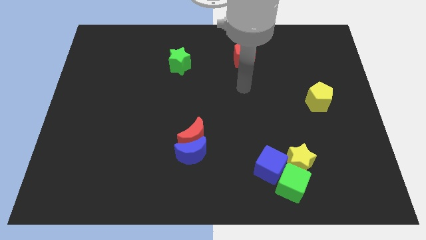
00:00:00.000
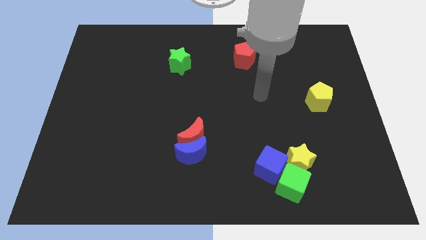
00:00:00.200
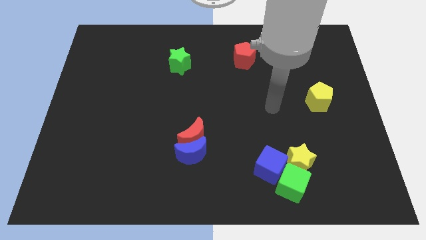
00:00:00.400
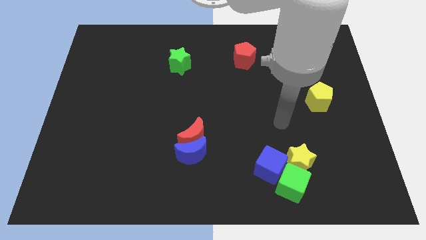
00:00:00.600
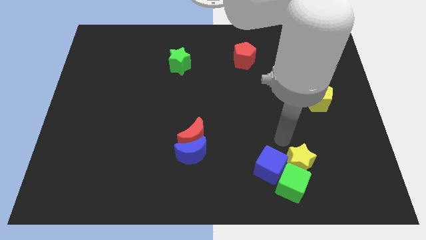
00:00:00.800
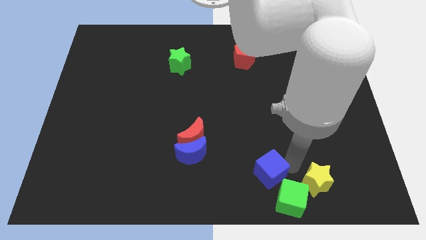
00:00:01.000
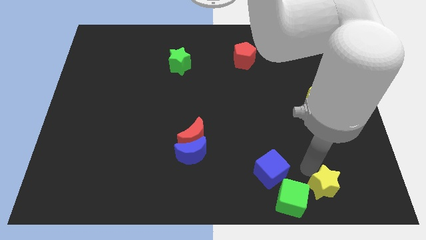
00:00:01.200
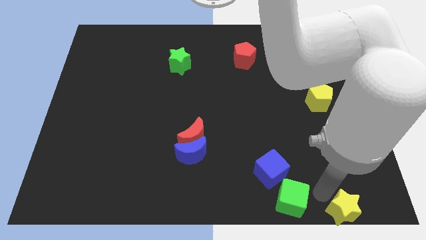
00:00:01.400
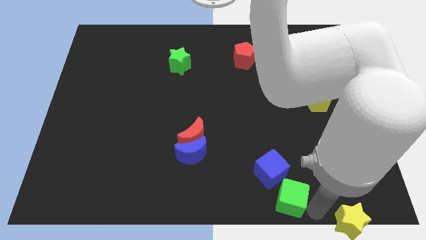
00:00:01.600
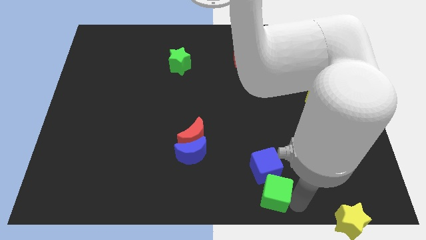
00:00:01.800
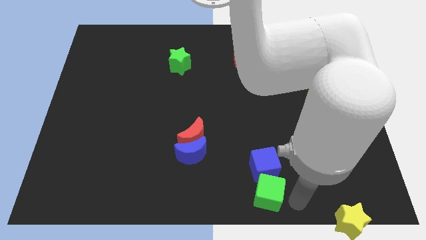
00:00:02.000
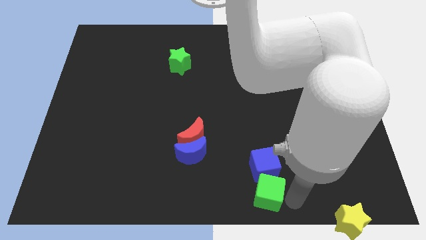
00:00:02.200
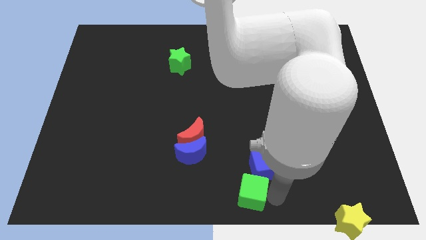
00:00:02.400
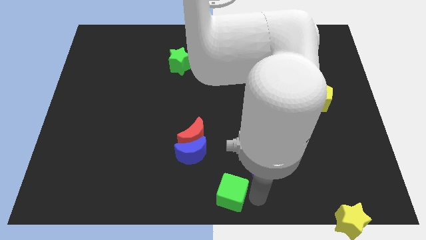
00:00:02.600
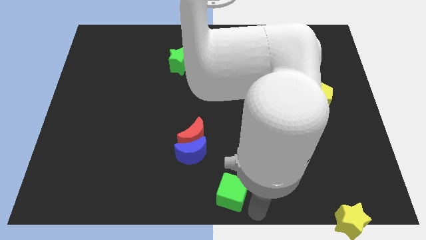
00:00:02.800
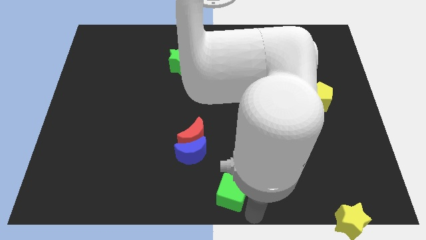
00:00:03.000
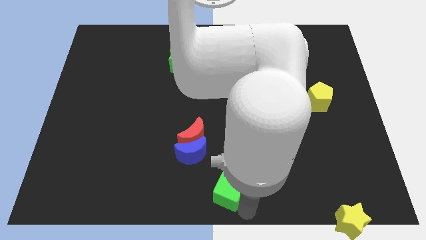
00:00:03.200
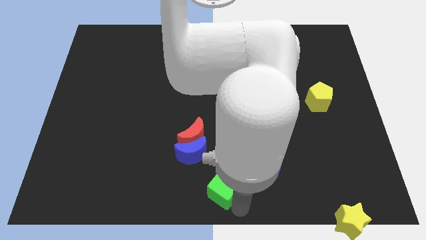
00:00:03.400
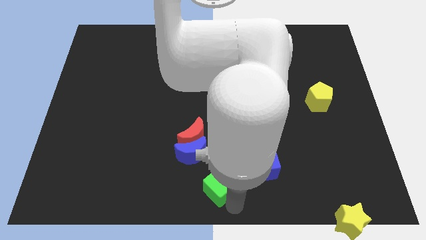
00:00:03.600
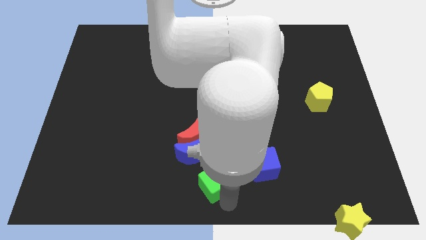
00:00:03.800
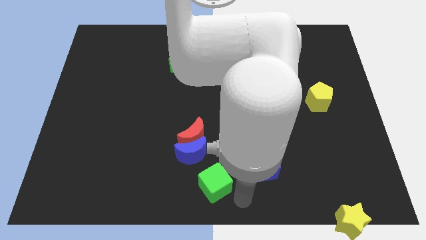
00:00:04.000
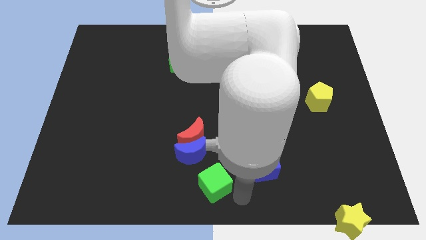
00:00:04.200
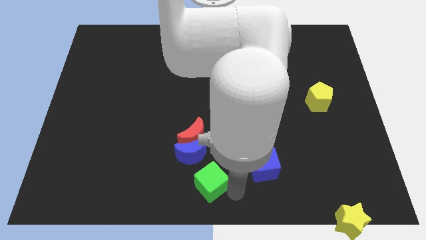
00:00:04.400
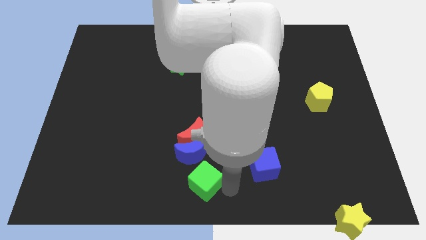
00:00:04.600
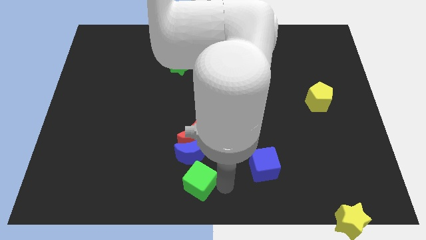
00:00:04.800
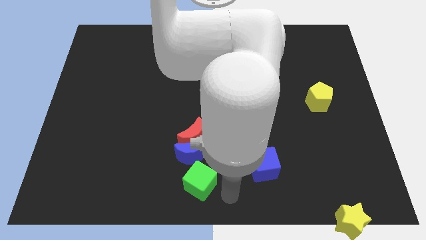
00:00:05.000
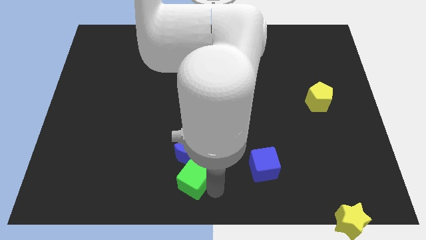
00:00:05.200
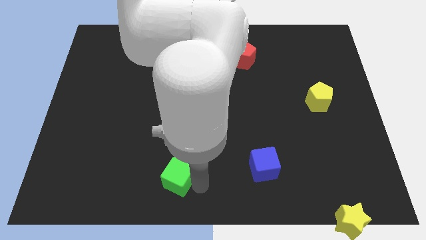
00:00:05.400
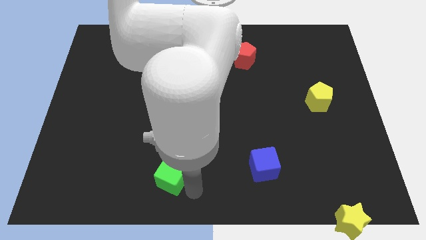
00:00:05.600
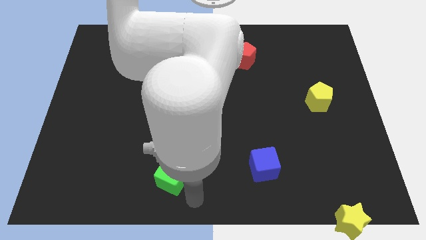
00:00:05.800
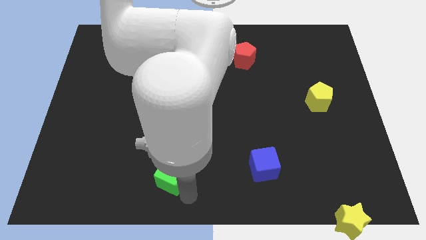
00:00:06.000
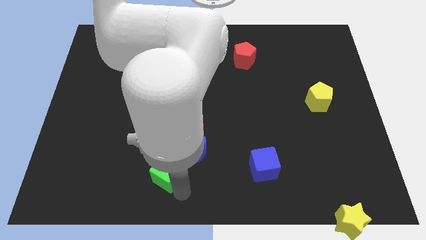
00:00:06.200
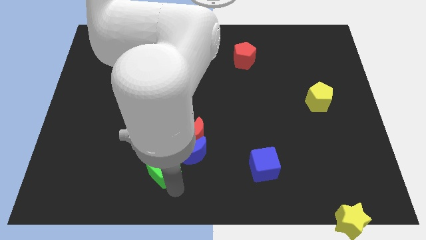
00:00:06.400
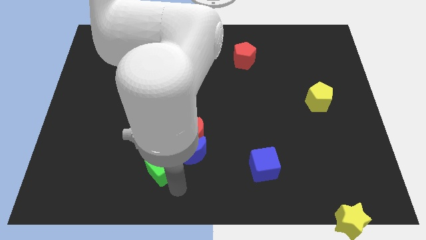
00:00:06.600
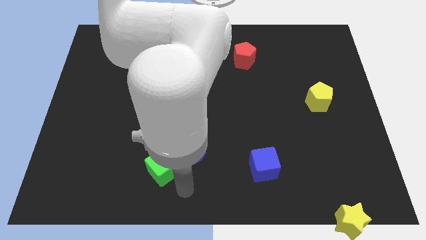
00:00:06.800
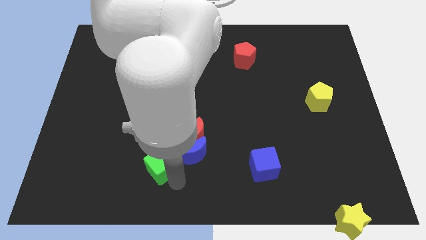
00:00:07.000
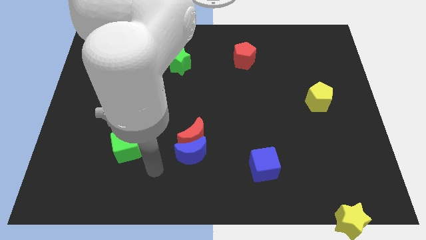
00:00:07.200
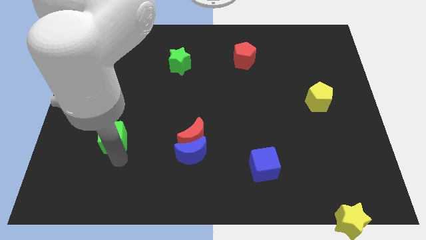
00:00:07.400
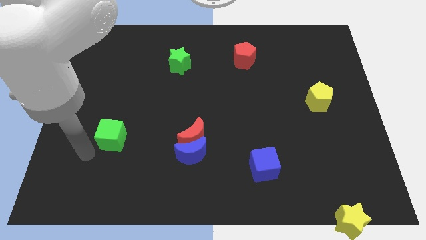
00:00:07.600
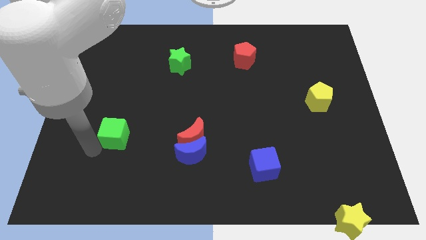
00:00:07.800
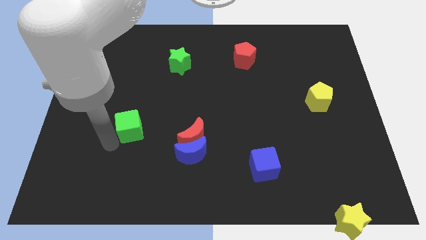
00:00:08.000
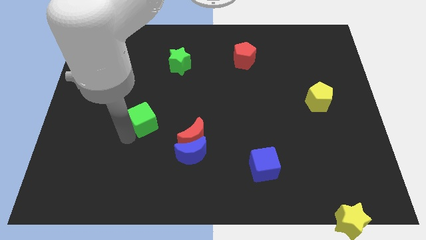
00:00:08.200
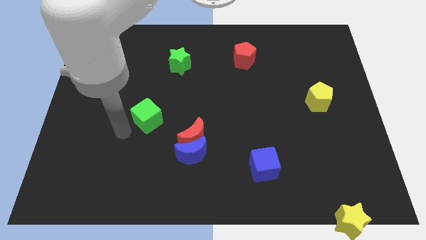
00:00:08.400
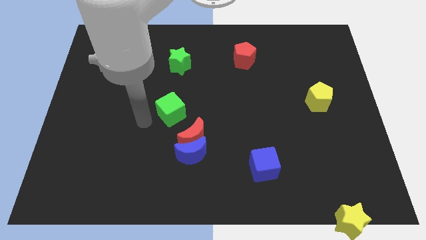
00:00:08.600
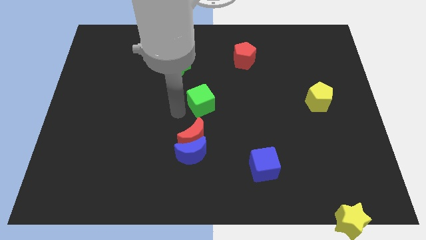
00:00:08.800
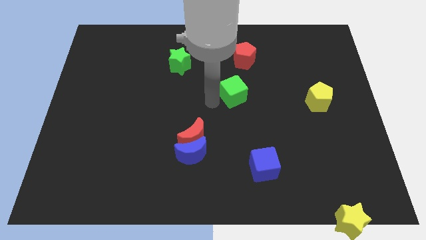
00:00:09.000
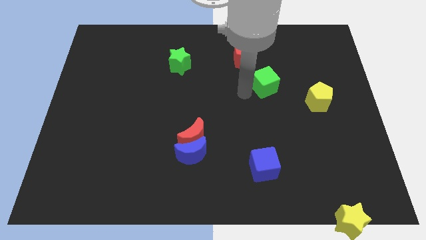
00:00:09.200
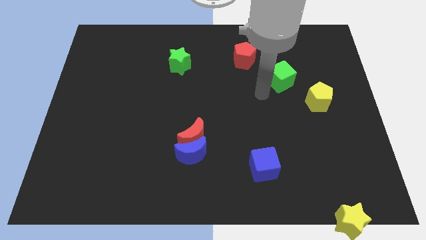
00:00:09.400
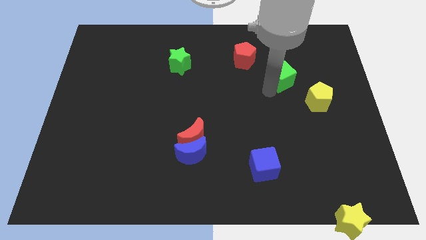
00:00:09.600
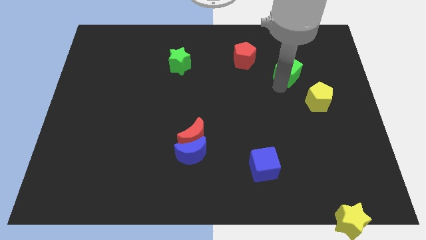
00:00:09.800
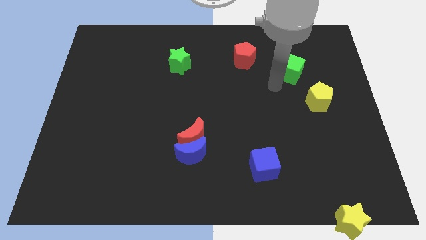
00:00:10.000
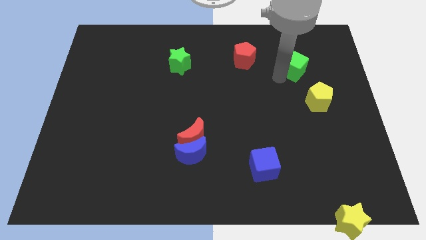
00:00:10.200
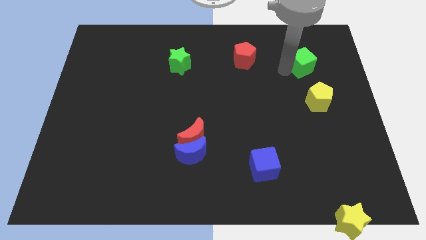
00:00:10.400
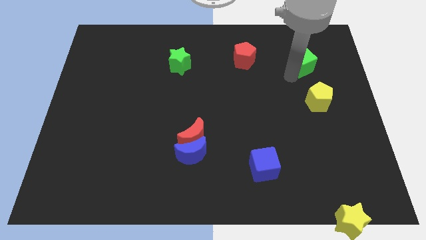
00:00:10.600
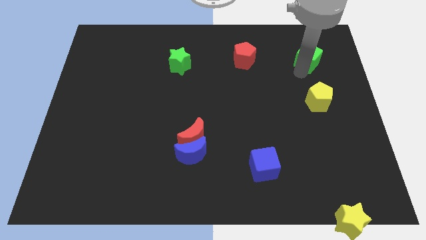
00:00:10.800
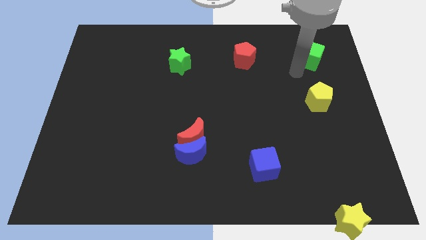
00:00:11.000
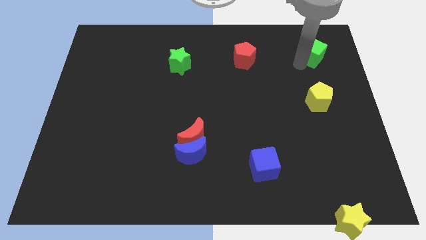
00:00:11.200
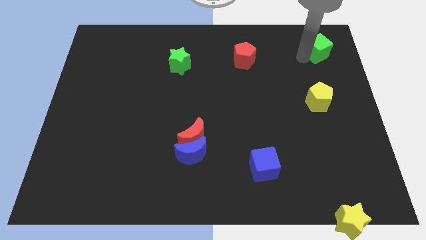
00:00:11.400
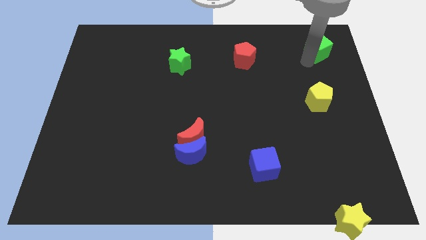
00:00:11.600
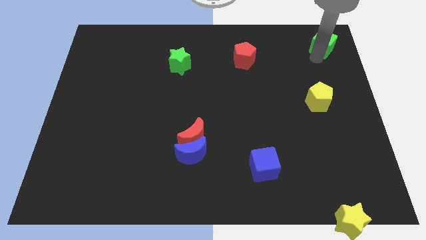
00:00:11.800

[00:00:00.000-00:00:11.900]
slide the green cube to the top right corner
